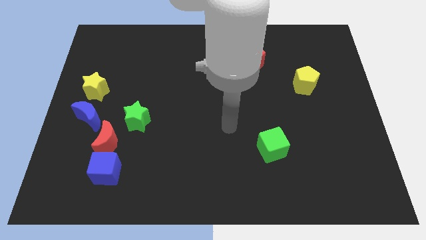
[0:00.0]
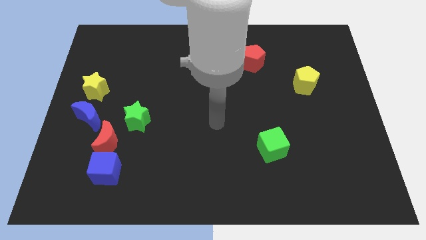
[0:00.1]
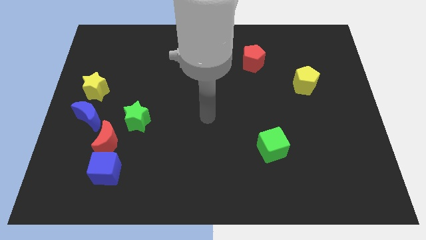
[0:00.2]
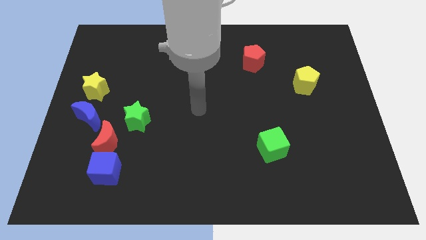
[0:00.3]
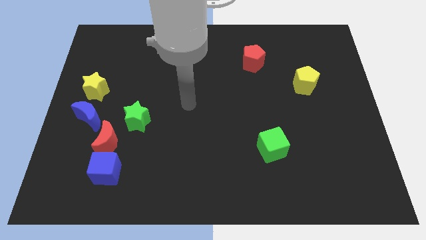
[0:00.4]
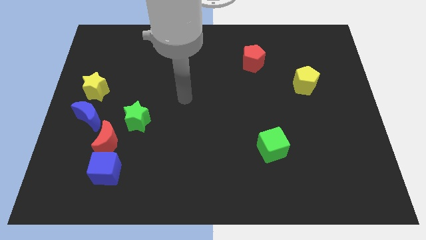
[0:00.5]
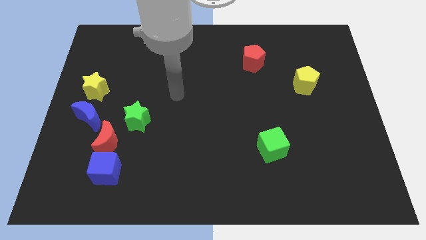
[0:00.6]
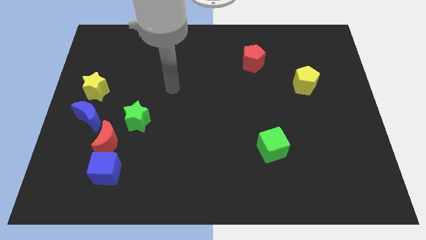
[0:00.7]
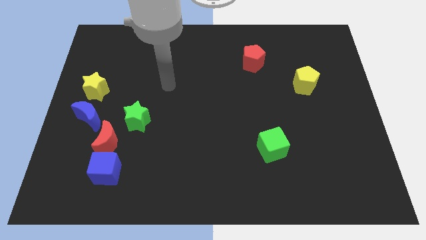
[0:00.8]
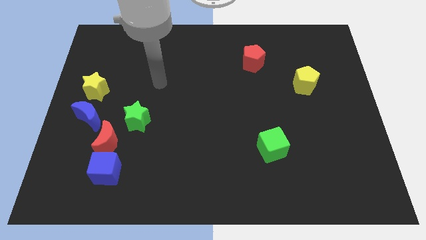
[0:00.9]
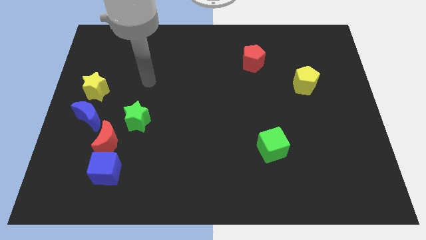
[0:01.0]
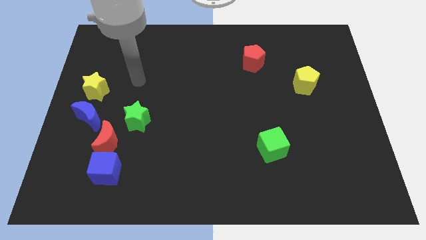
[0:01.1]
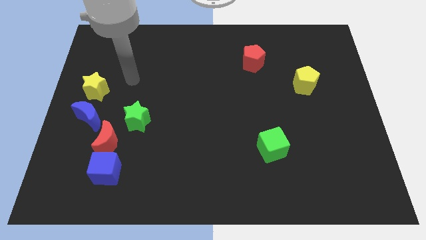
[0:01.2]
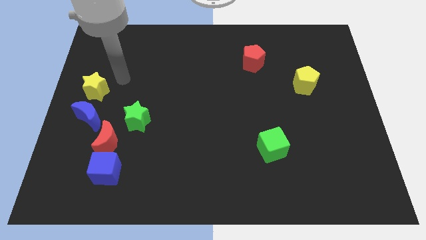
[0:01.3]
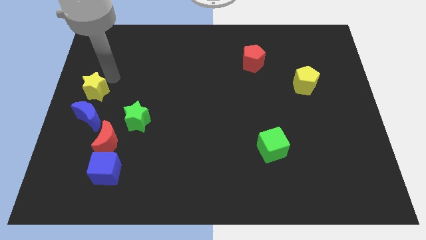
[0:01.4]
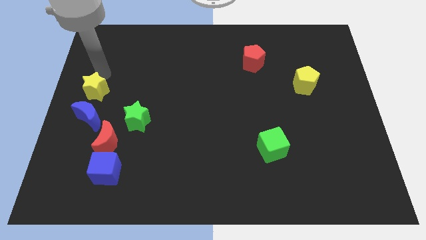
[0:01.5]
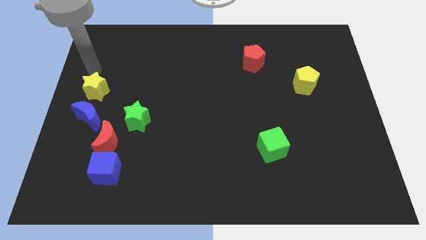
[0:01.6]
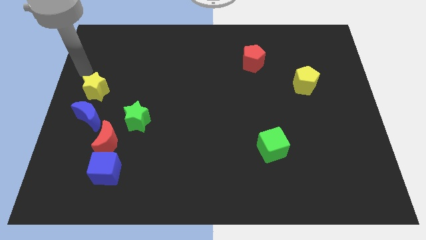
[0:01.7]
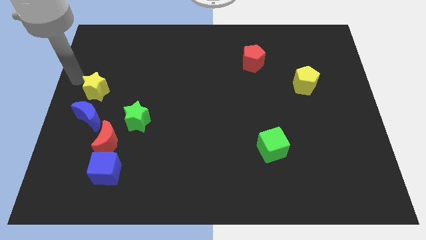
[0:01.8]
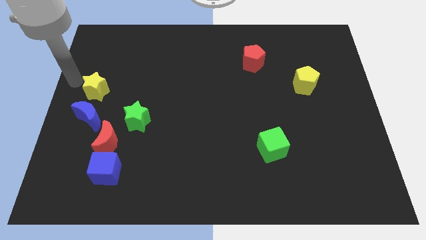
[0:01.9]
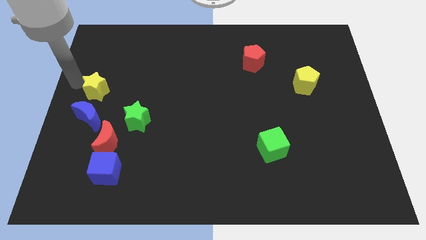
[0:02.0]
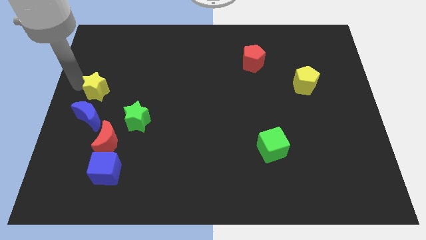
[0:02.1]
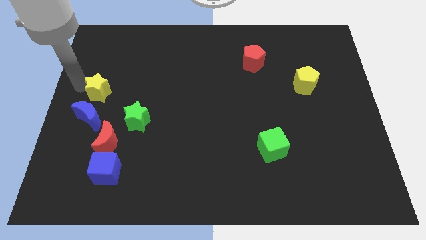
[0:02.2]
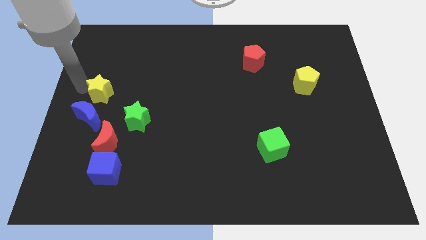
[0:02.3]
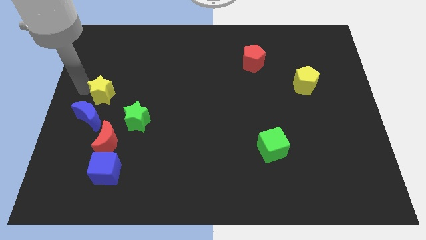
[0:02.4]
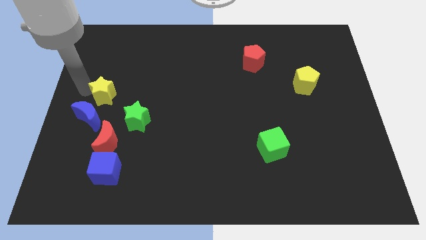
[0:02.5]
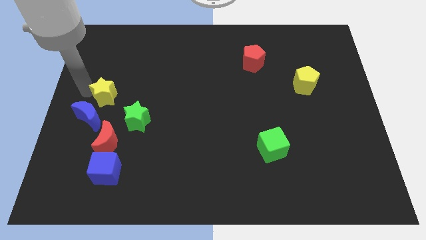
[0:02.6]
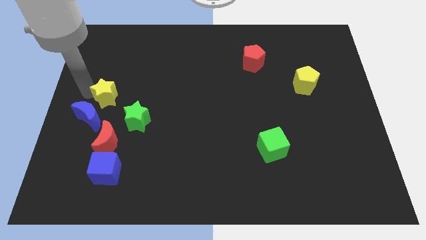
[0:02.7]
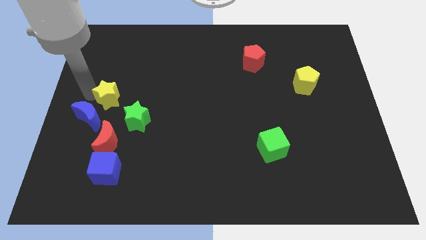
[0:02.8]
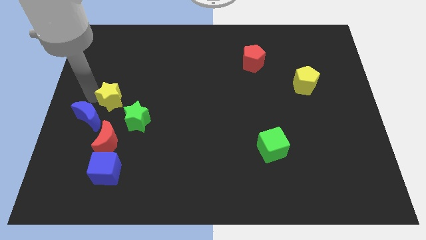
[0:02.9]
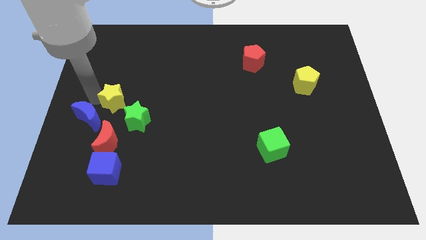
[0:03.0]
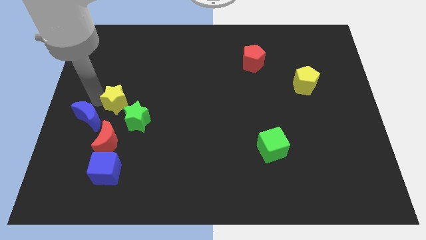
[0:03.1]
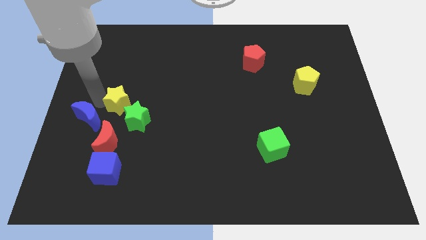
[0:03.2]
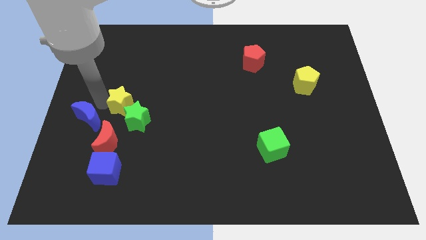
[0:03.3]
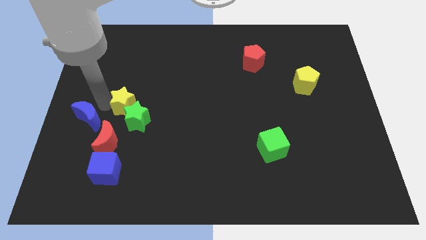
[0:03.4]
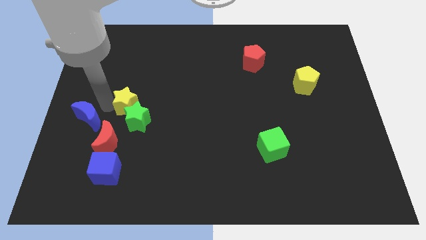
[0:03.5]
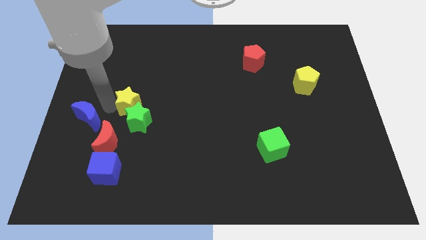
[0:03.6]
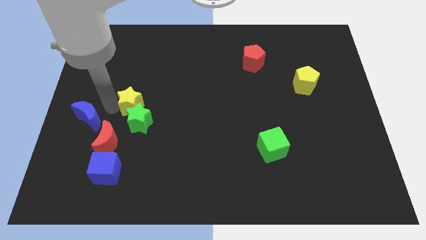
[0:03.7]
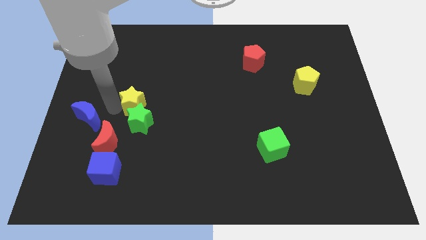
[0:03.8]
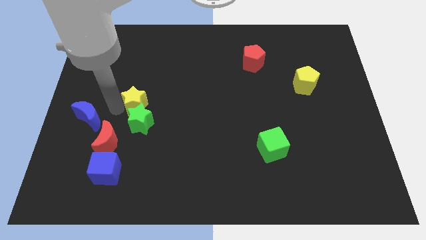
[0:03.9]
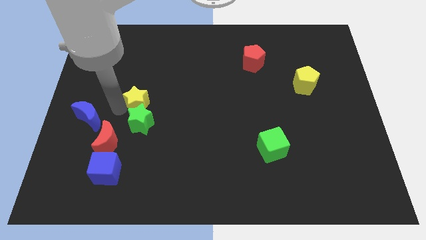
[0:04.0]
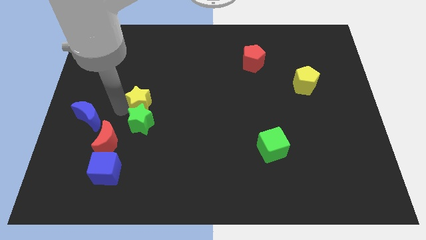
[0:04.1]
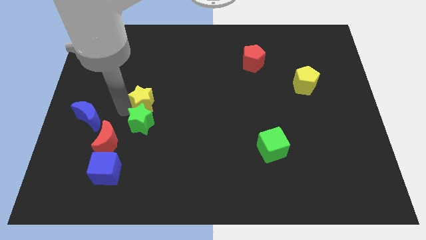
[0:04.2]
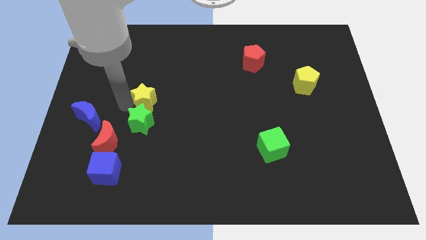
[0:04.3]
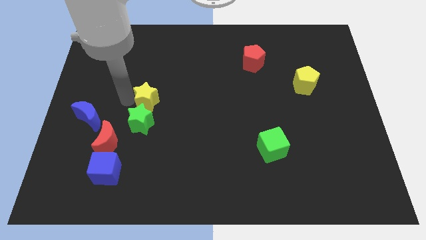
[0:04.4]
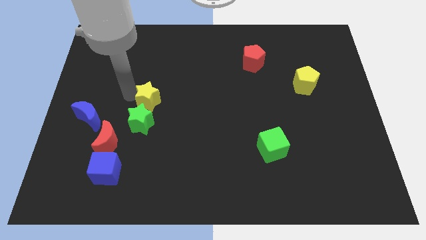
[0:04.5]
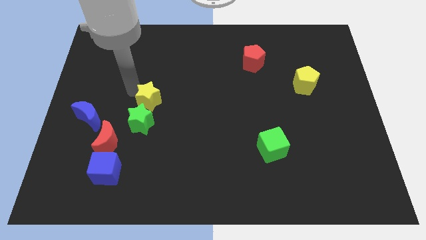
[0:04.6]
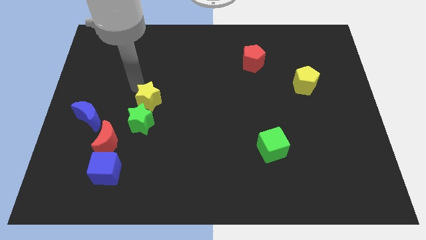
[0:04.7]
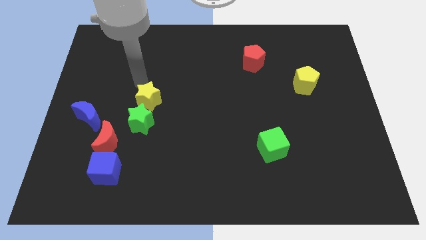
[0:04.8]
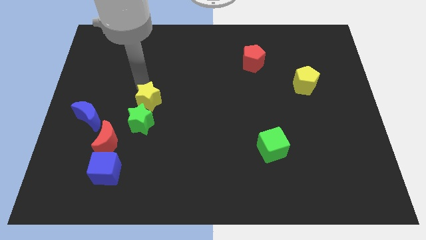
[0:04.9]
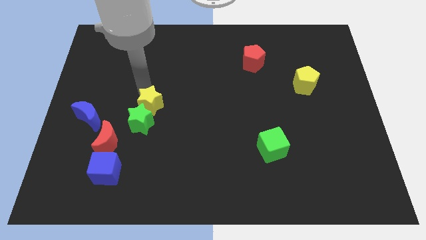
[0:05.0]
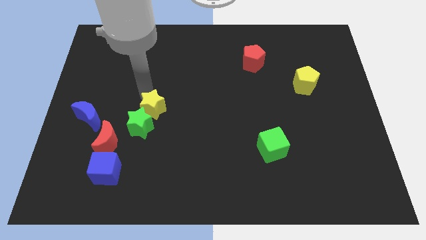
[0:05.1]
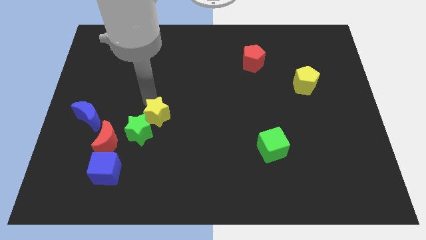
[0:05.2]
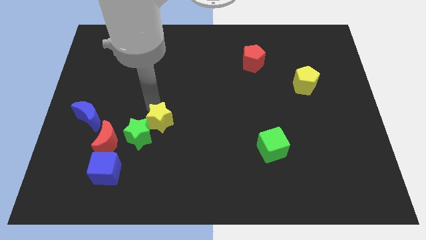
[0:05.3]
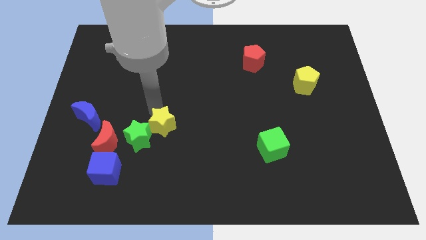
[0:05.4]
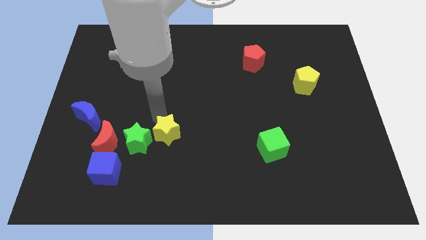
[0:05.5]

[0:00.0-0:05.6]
move the yellow star down and to the right diagonally

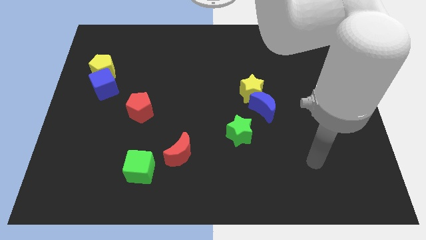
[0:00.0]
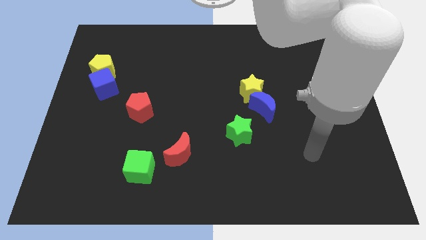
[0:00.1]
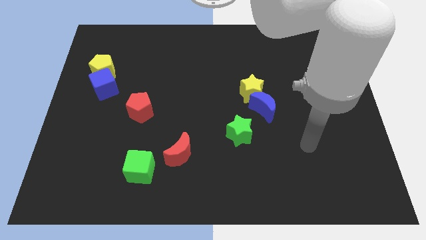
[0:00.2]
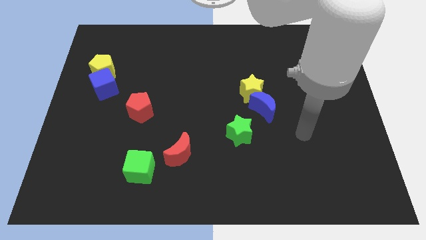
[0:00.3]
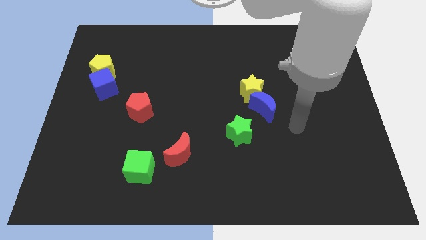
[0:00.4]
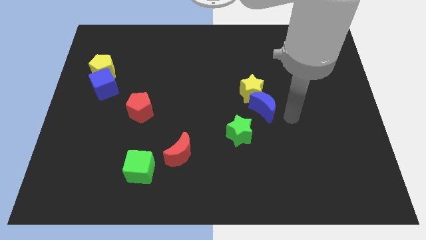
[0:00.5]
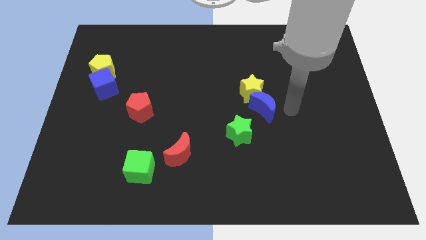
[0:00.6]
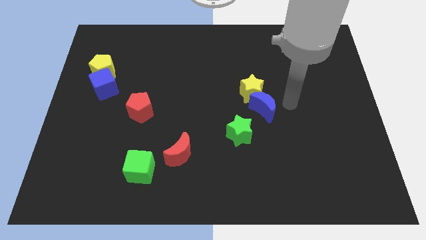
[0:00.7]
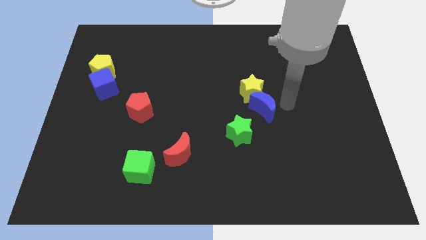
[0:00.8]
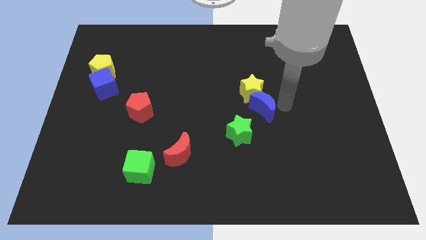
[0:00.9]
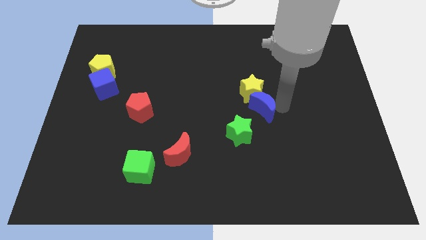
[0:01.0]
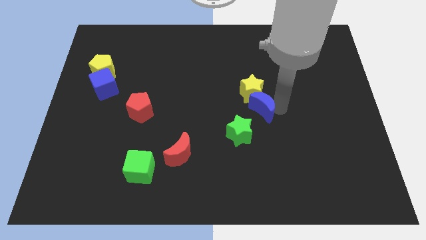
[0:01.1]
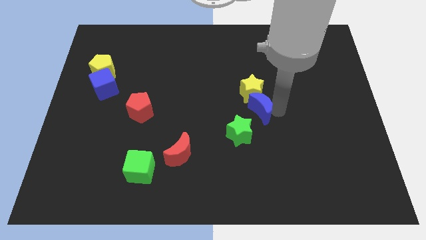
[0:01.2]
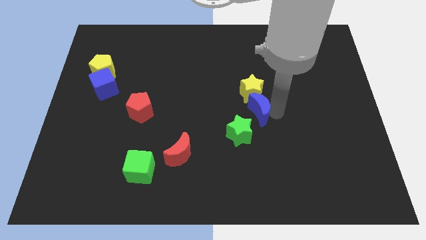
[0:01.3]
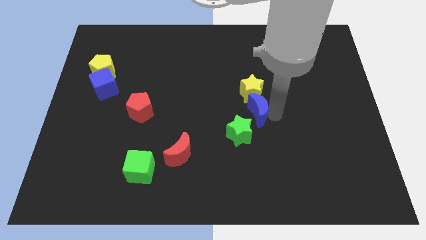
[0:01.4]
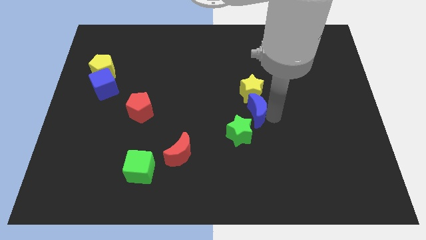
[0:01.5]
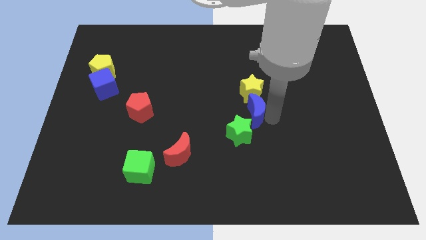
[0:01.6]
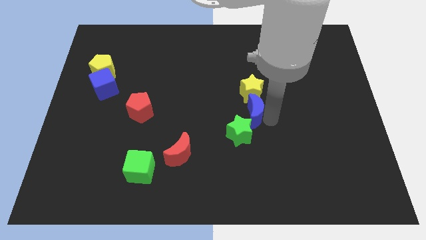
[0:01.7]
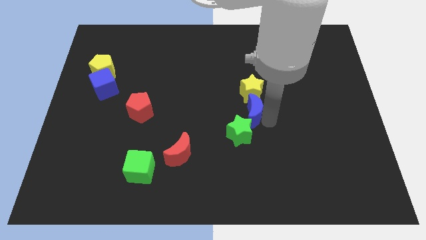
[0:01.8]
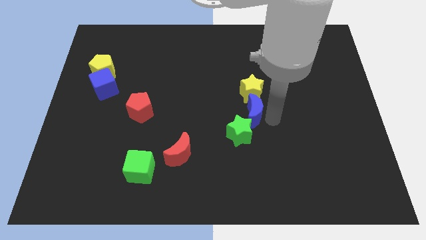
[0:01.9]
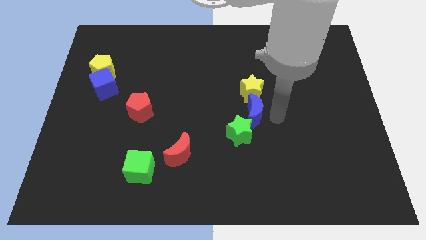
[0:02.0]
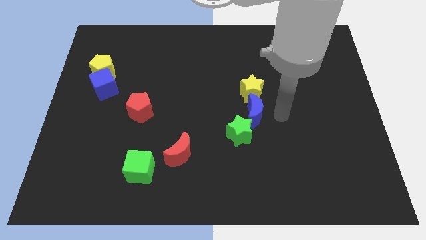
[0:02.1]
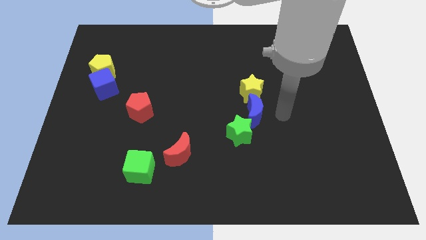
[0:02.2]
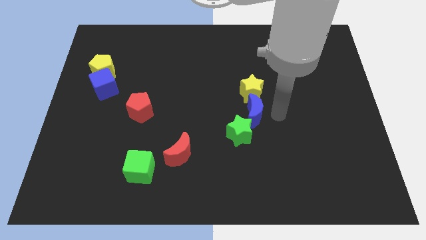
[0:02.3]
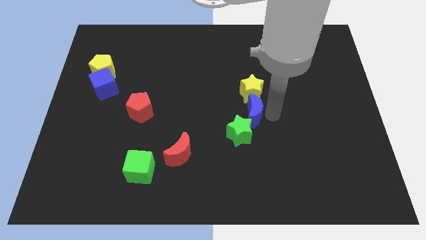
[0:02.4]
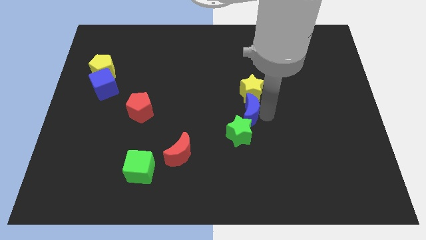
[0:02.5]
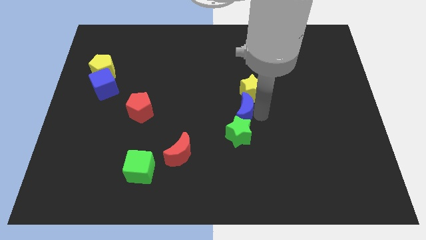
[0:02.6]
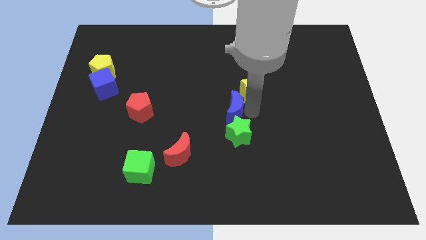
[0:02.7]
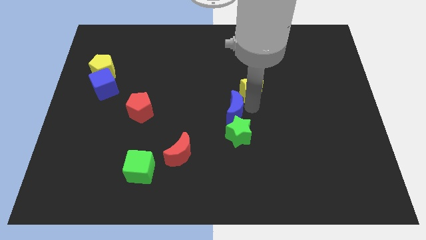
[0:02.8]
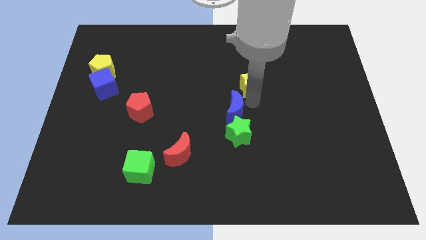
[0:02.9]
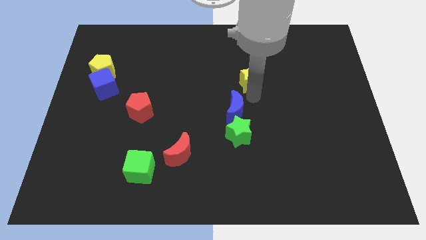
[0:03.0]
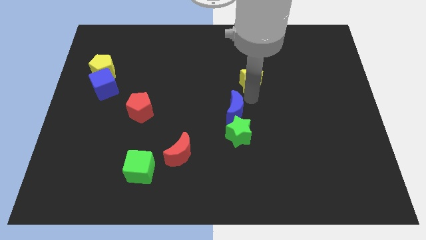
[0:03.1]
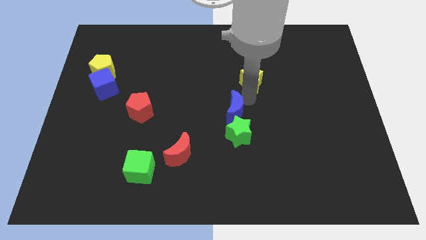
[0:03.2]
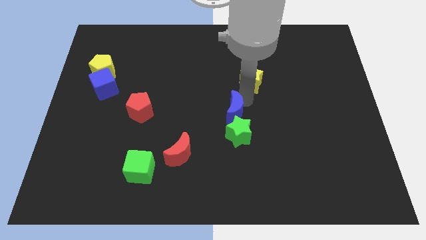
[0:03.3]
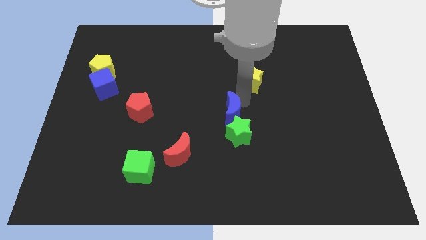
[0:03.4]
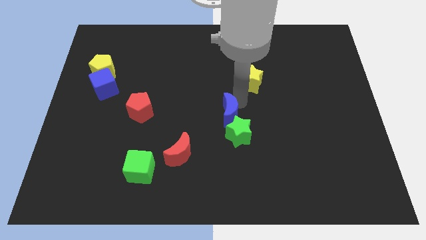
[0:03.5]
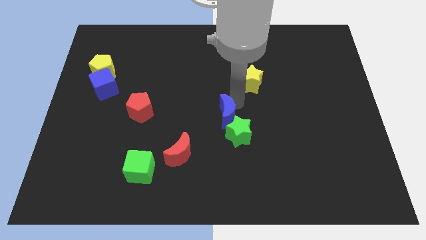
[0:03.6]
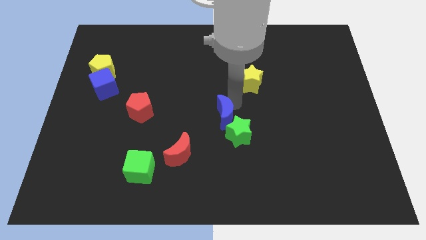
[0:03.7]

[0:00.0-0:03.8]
move the blue moon down and to the left diagonally somewhat
